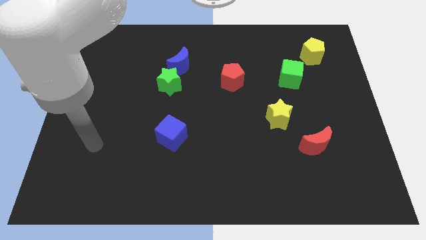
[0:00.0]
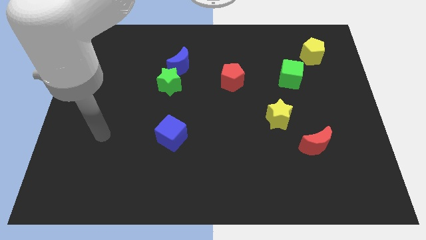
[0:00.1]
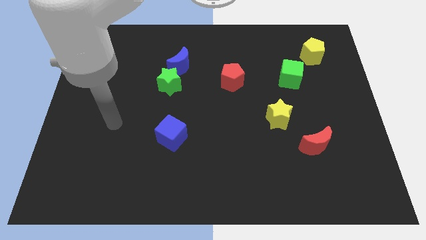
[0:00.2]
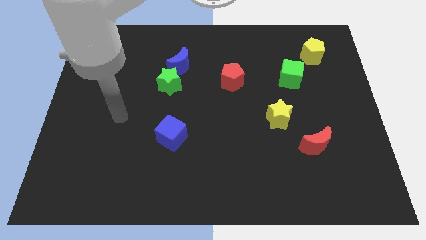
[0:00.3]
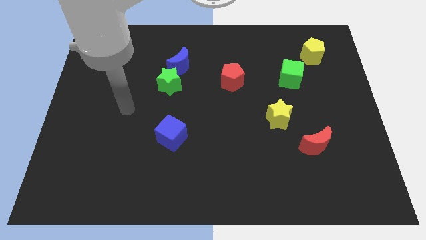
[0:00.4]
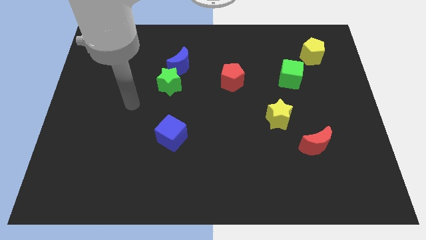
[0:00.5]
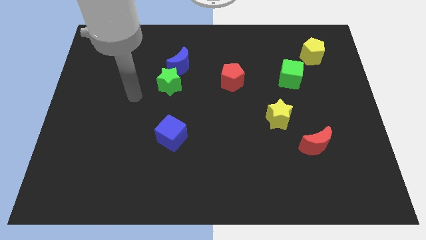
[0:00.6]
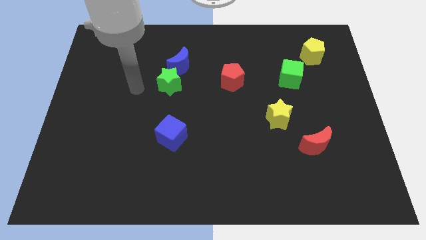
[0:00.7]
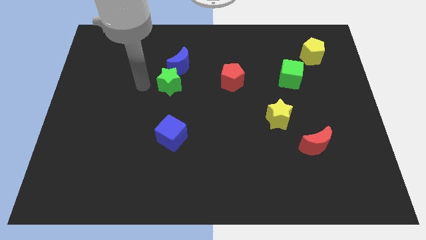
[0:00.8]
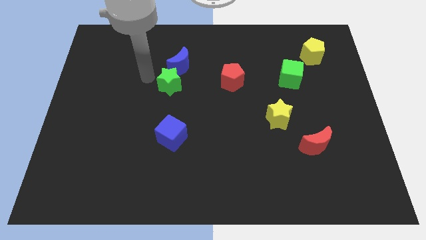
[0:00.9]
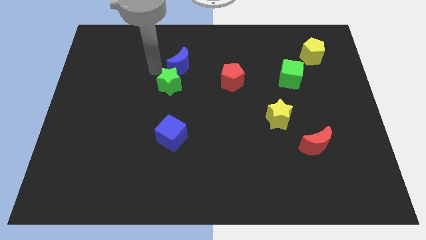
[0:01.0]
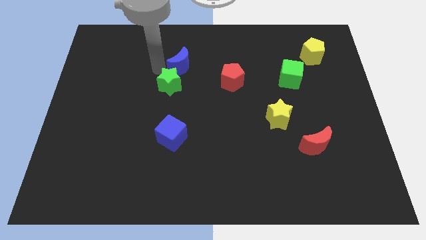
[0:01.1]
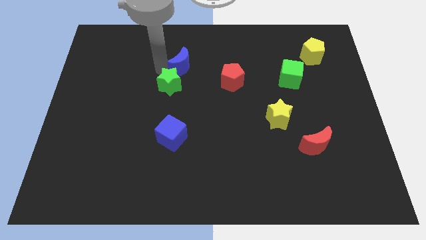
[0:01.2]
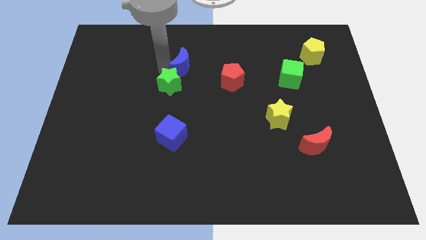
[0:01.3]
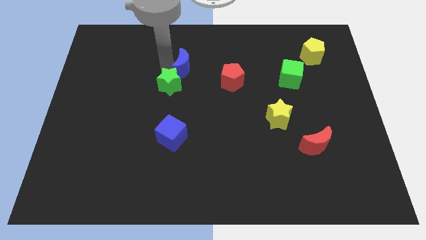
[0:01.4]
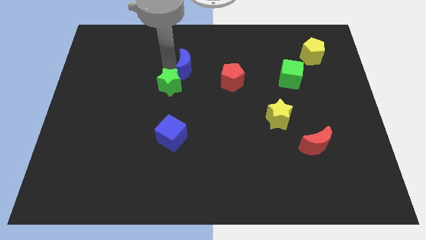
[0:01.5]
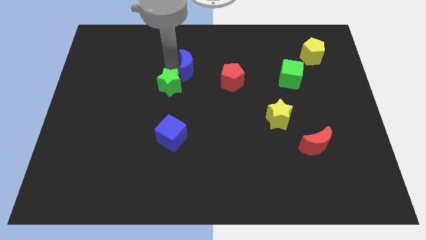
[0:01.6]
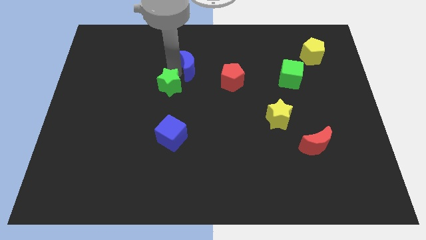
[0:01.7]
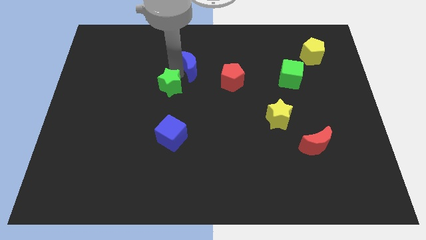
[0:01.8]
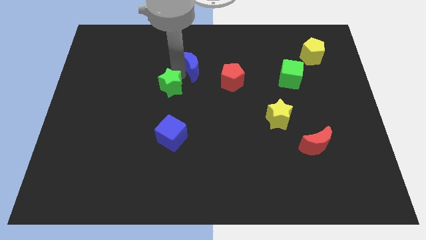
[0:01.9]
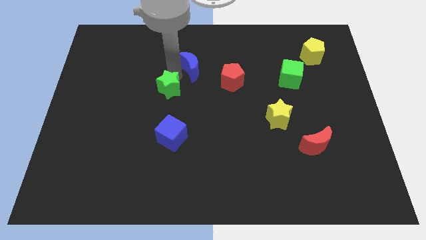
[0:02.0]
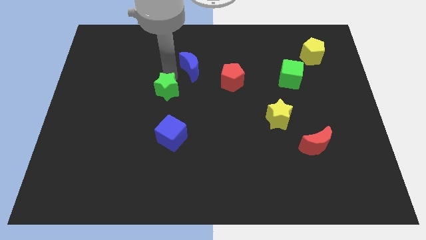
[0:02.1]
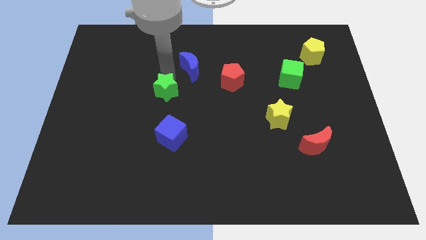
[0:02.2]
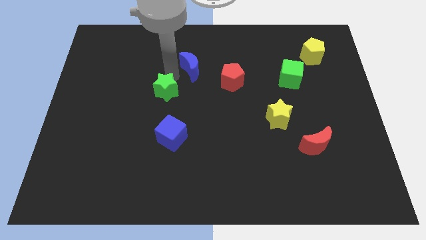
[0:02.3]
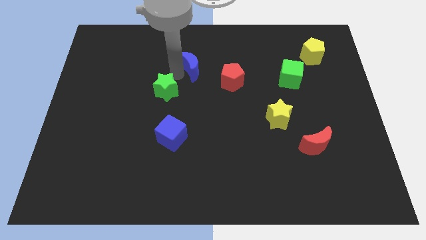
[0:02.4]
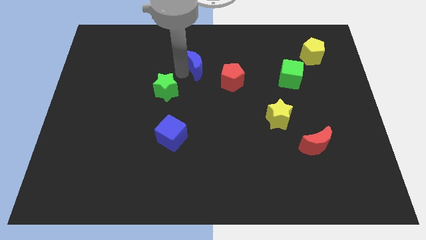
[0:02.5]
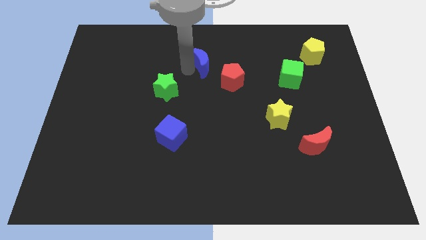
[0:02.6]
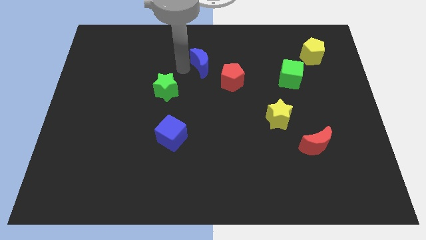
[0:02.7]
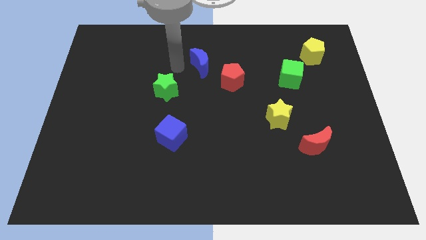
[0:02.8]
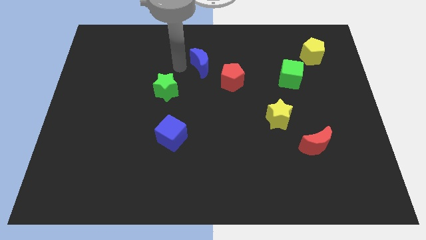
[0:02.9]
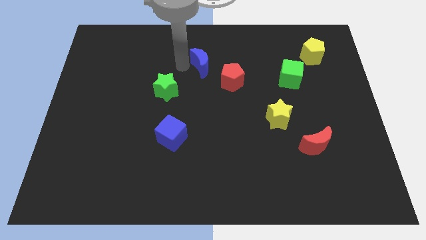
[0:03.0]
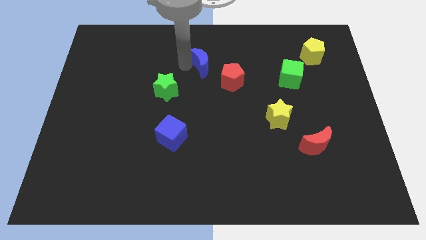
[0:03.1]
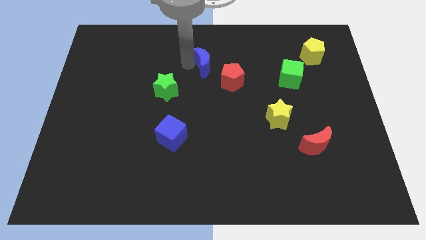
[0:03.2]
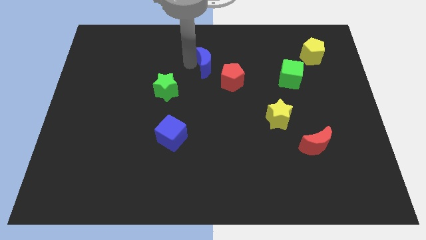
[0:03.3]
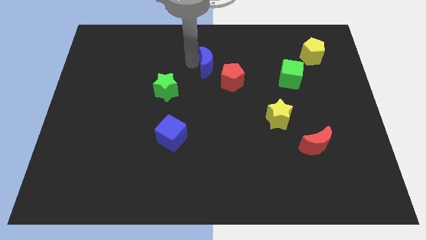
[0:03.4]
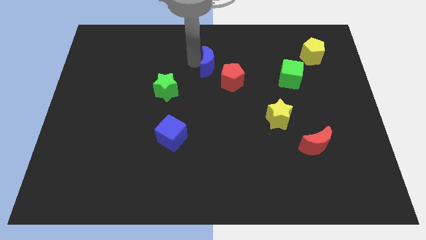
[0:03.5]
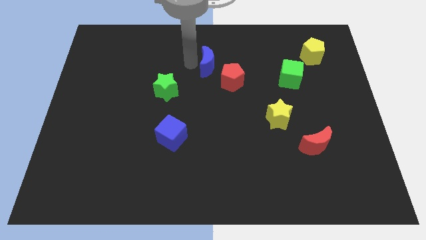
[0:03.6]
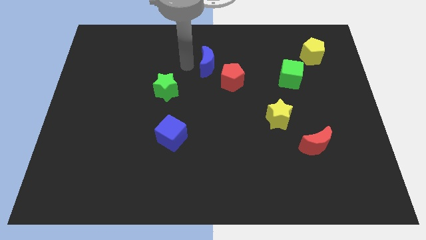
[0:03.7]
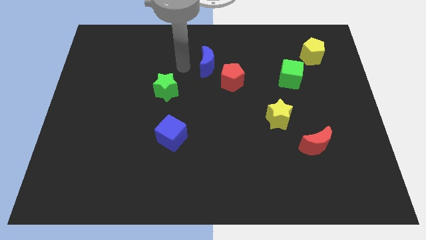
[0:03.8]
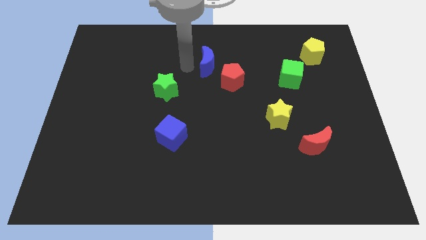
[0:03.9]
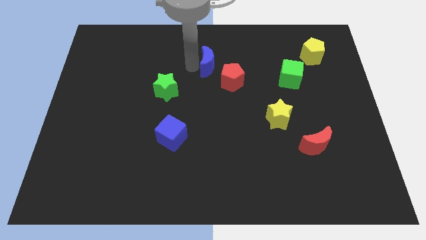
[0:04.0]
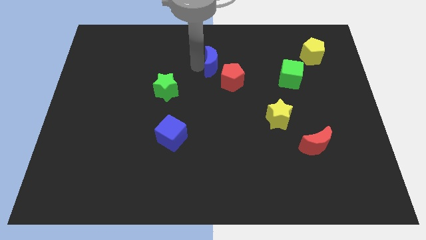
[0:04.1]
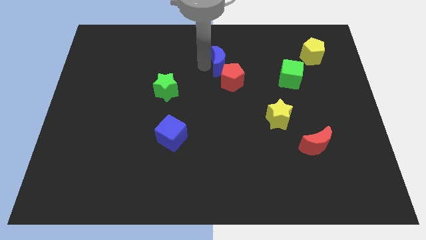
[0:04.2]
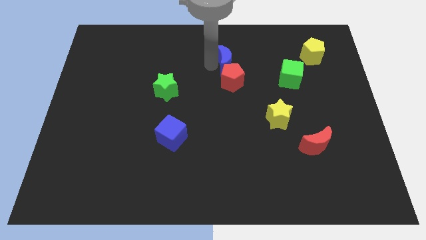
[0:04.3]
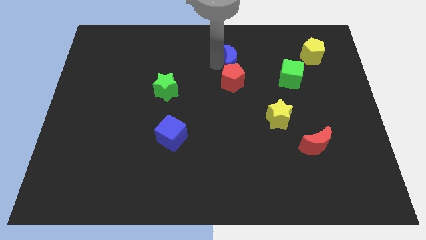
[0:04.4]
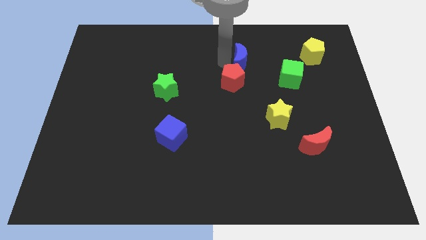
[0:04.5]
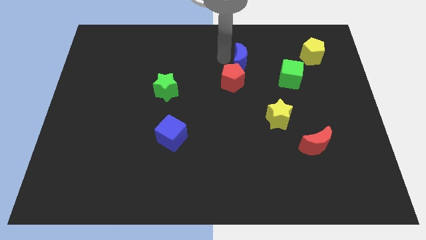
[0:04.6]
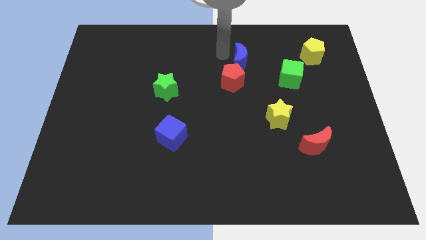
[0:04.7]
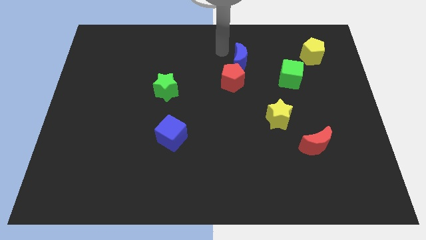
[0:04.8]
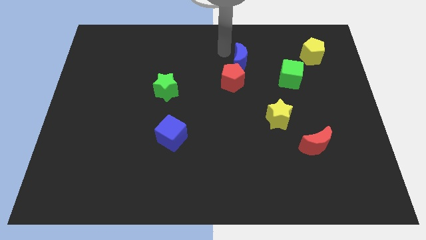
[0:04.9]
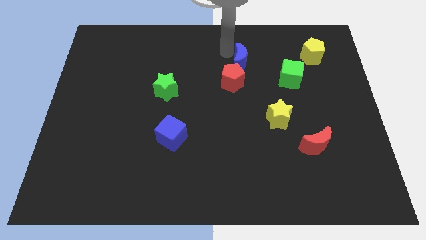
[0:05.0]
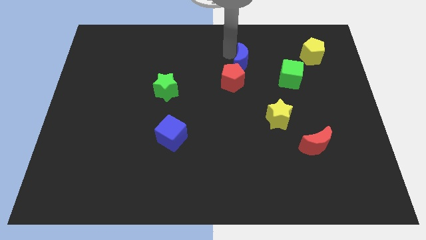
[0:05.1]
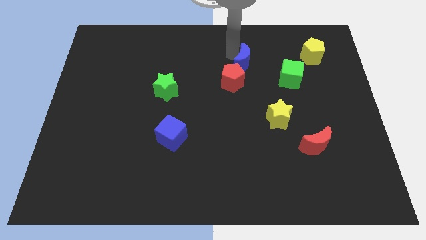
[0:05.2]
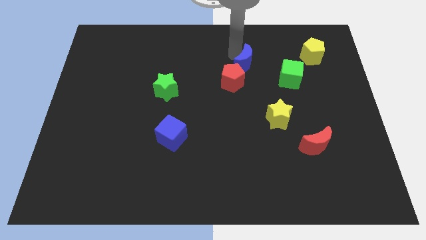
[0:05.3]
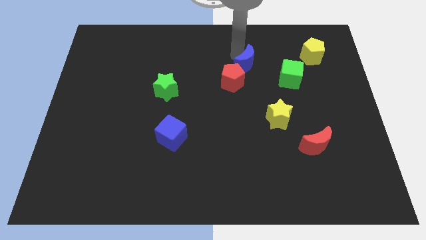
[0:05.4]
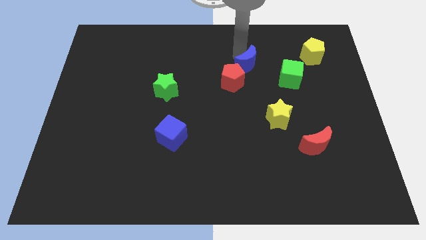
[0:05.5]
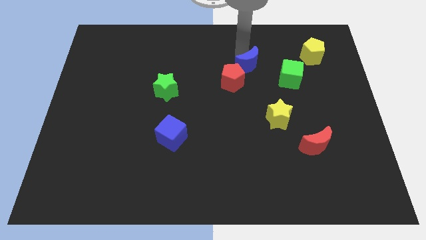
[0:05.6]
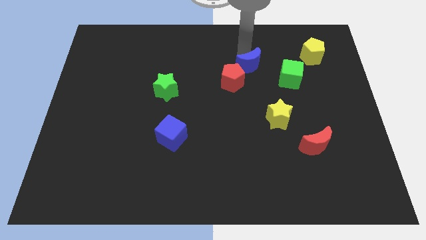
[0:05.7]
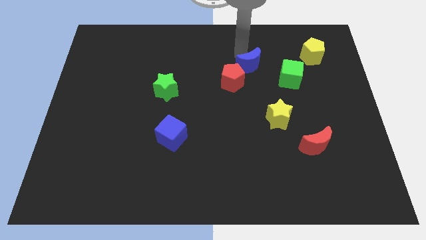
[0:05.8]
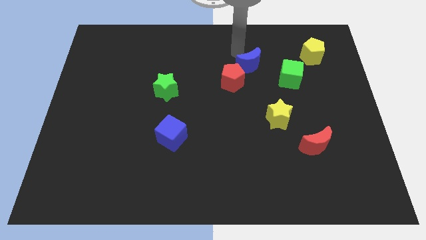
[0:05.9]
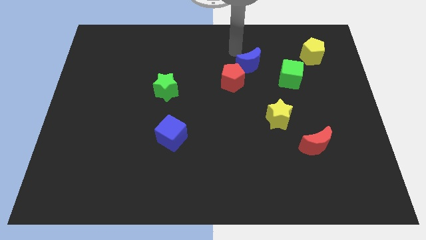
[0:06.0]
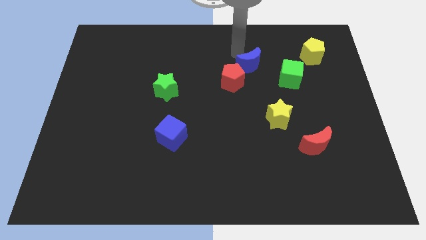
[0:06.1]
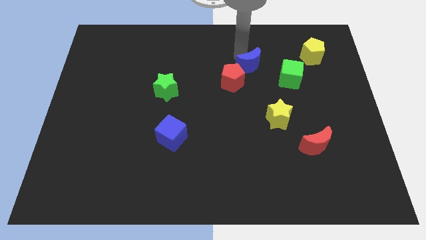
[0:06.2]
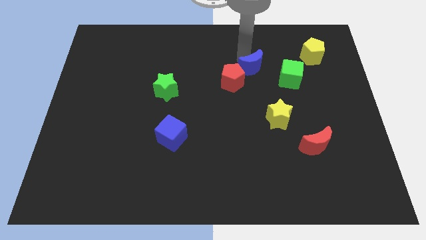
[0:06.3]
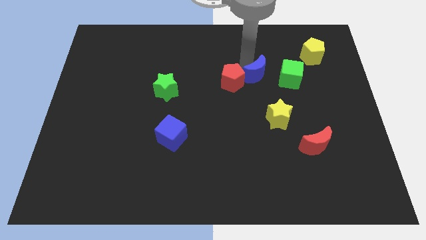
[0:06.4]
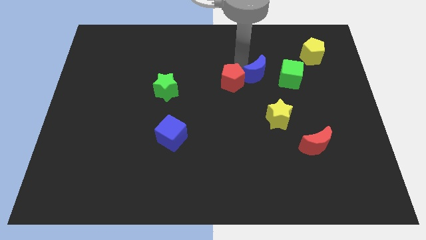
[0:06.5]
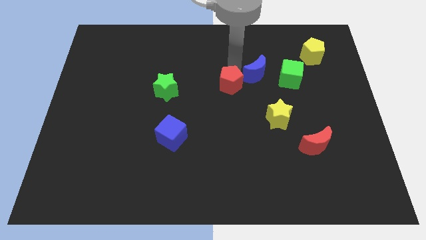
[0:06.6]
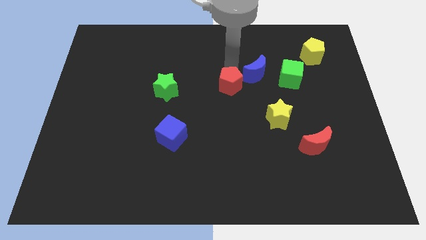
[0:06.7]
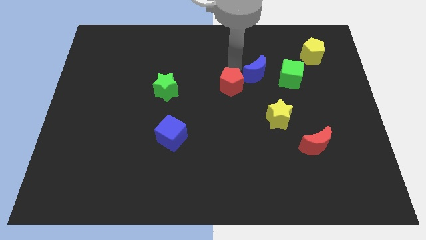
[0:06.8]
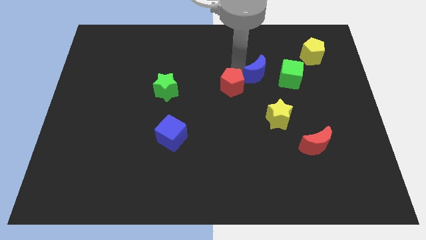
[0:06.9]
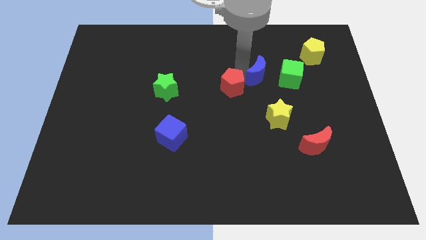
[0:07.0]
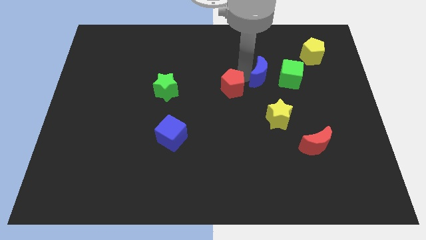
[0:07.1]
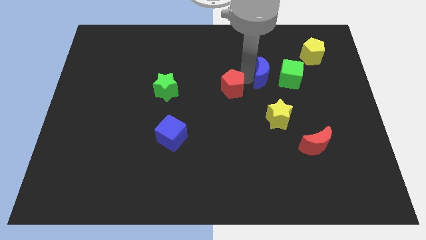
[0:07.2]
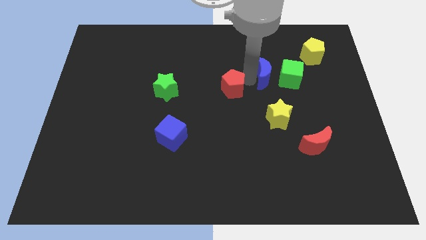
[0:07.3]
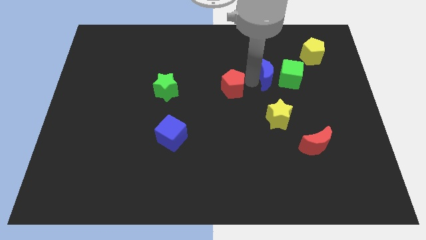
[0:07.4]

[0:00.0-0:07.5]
push the blue moon next to the green cube
